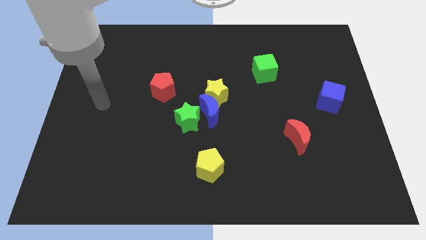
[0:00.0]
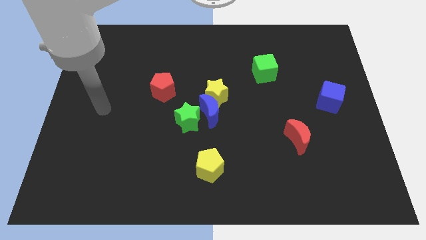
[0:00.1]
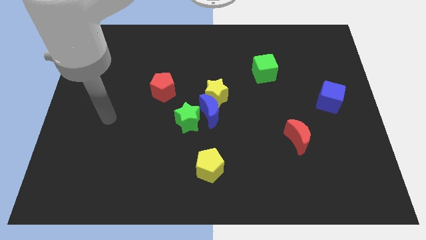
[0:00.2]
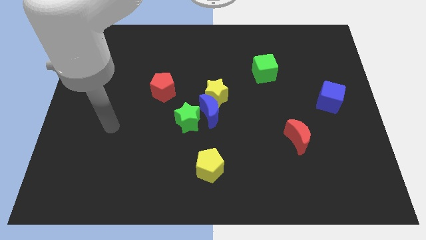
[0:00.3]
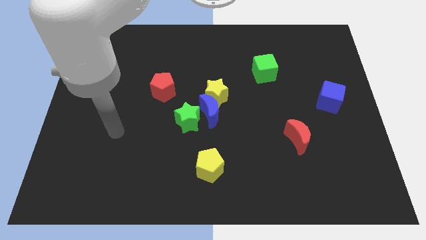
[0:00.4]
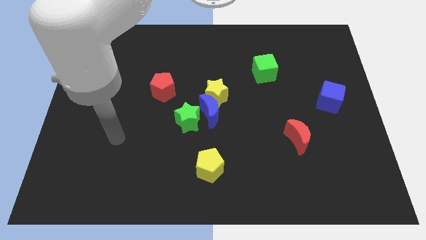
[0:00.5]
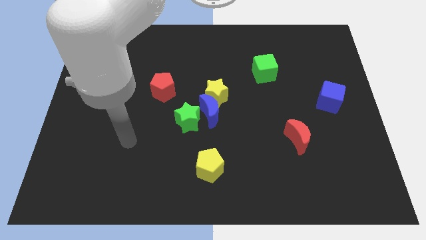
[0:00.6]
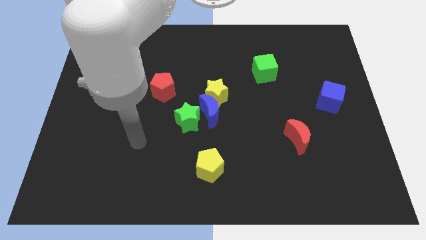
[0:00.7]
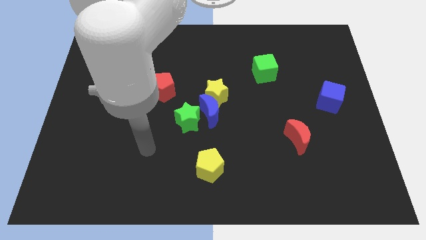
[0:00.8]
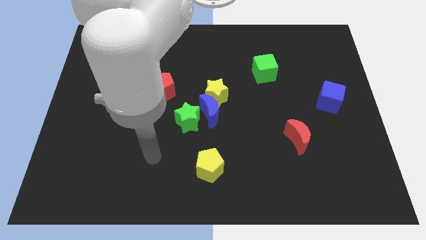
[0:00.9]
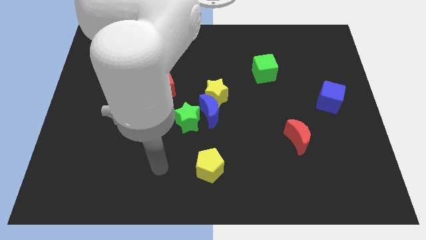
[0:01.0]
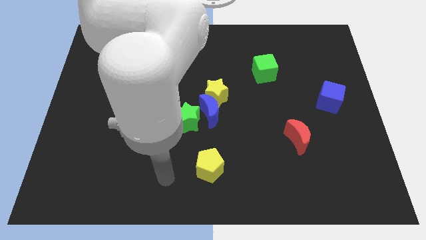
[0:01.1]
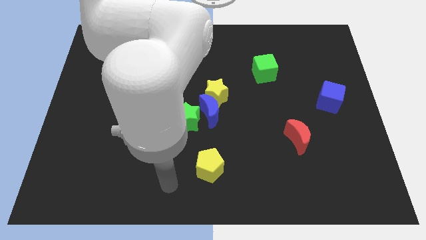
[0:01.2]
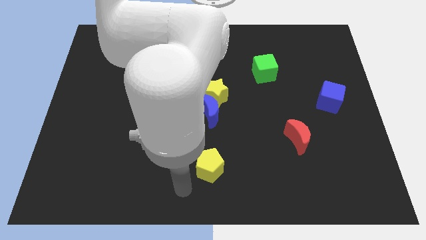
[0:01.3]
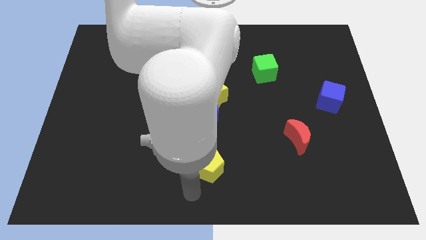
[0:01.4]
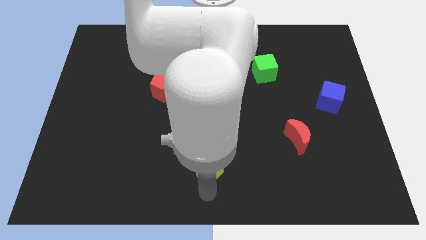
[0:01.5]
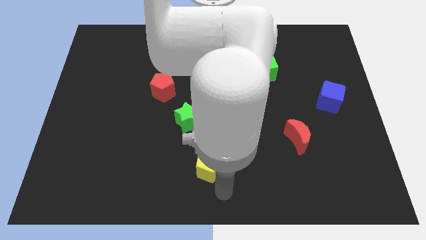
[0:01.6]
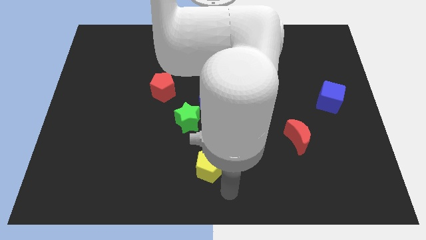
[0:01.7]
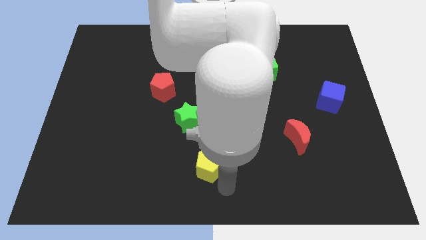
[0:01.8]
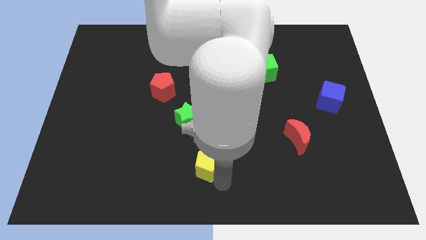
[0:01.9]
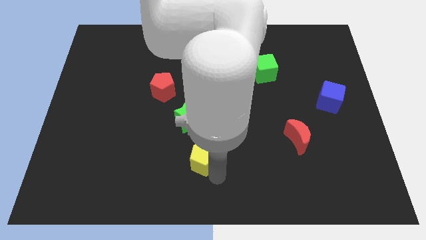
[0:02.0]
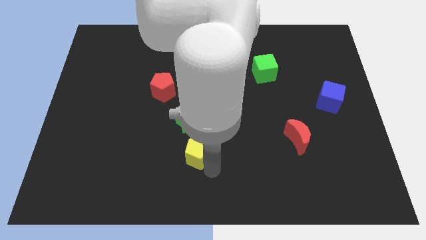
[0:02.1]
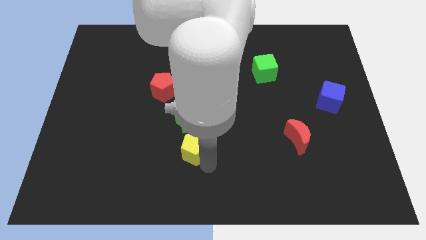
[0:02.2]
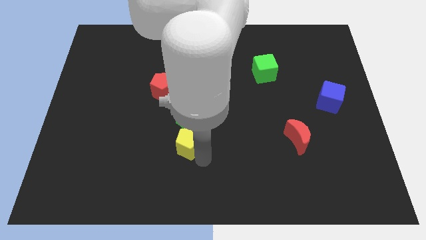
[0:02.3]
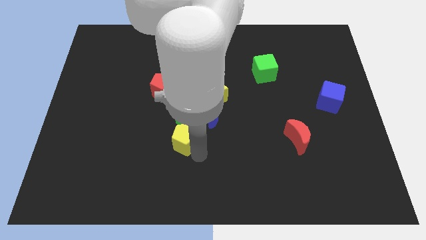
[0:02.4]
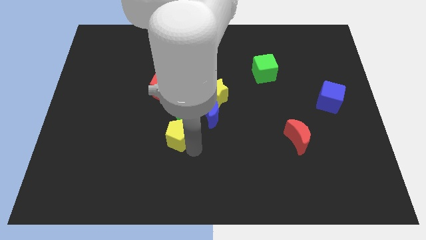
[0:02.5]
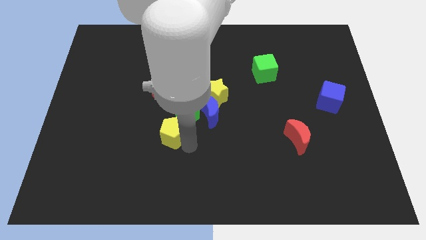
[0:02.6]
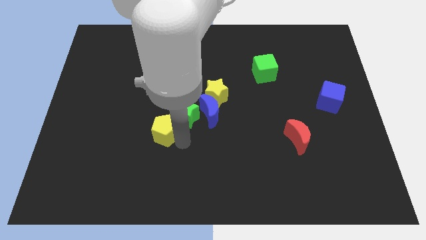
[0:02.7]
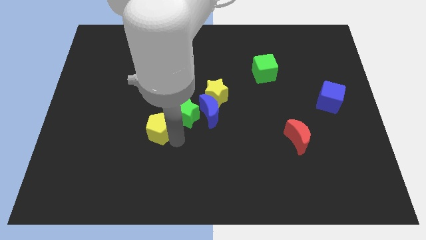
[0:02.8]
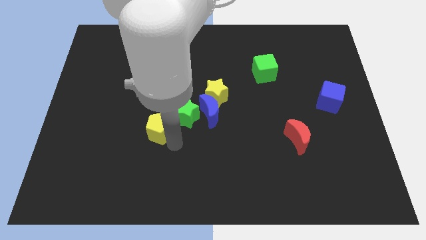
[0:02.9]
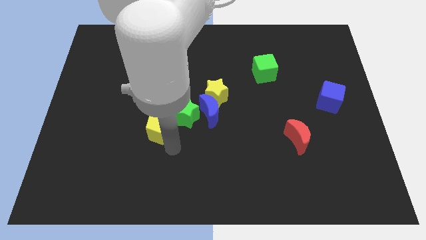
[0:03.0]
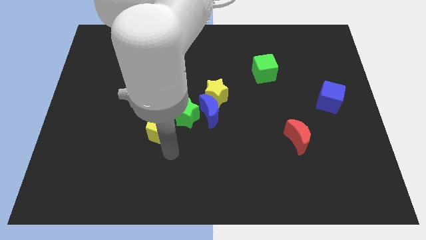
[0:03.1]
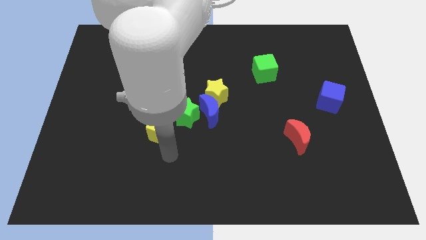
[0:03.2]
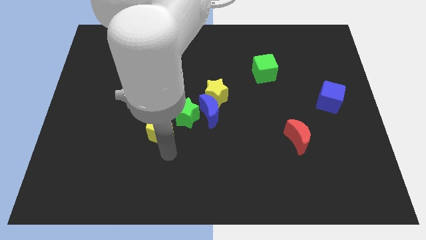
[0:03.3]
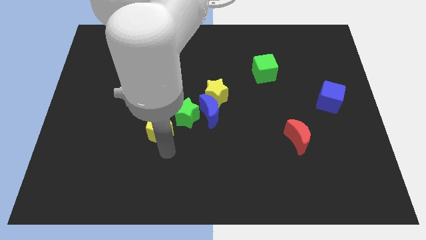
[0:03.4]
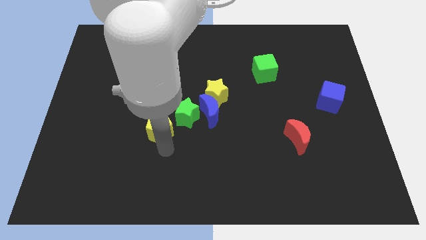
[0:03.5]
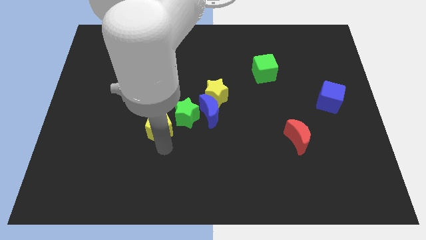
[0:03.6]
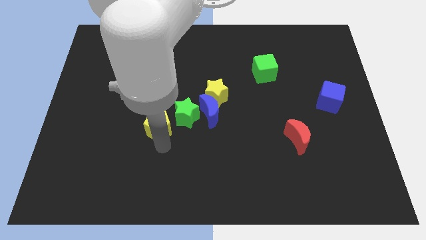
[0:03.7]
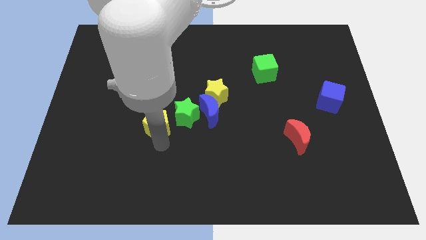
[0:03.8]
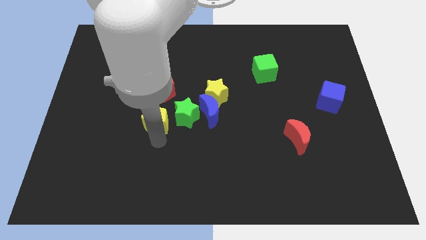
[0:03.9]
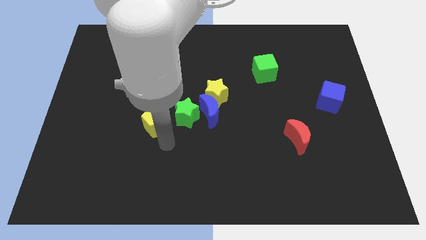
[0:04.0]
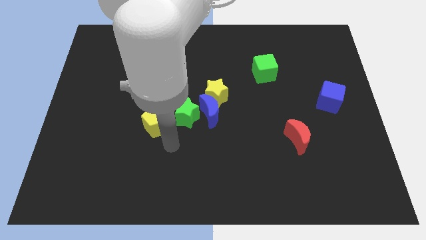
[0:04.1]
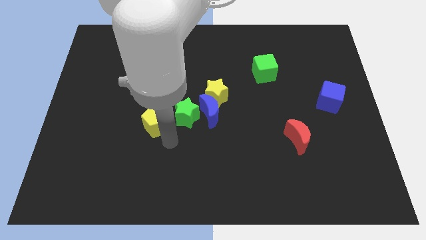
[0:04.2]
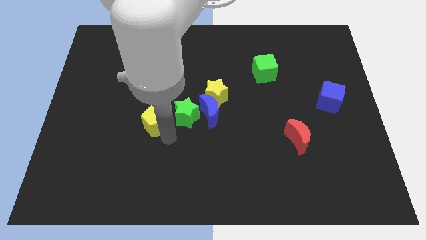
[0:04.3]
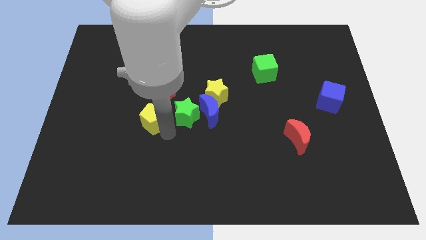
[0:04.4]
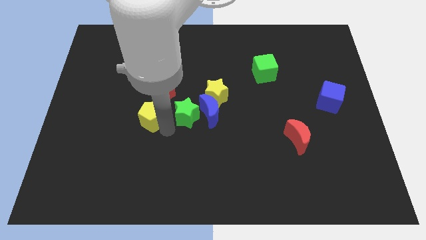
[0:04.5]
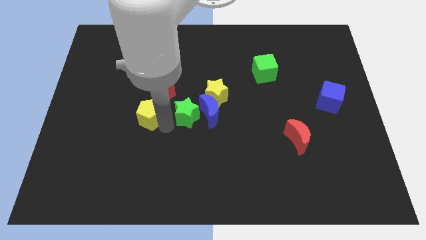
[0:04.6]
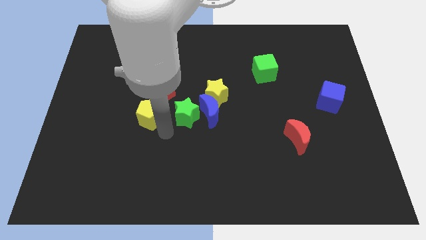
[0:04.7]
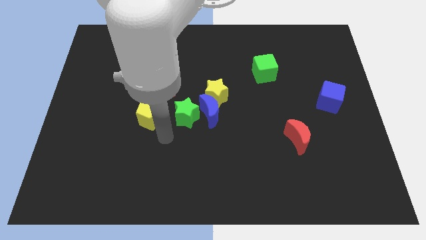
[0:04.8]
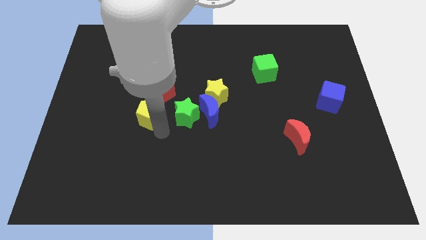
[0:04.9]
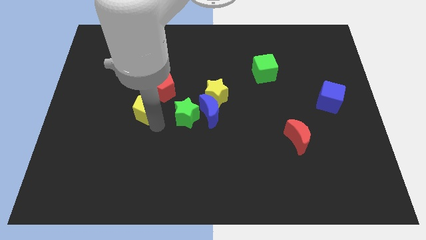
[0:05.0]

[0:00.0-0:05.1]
move the yellow pentagon up and left diagonally

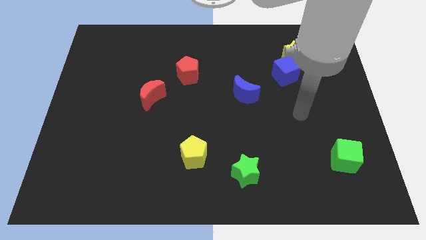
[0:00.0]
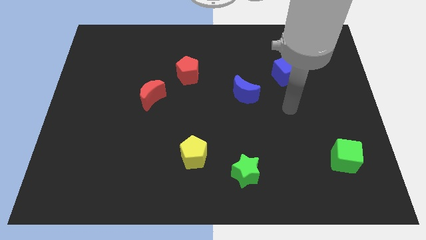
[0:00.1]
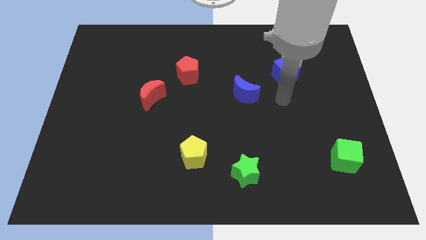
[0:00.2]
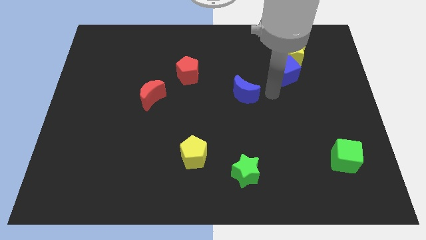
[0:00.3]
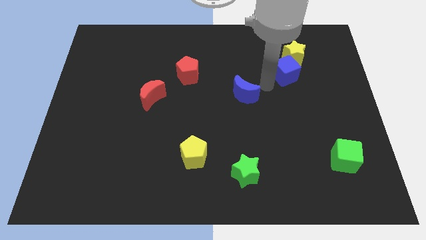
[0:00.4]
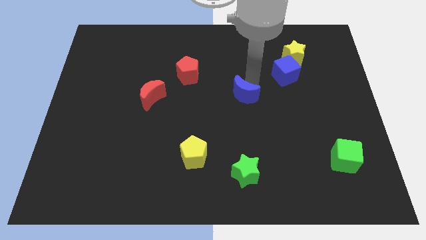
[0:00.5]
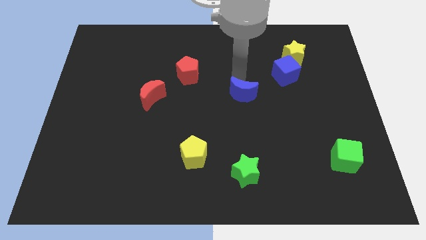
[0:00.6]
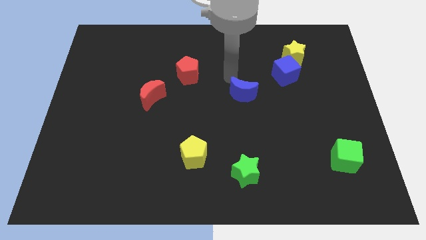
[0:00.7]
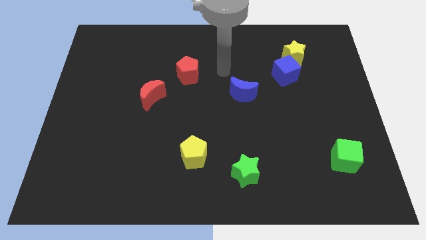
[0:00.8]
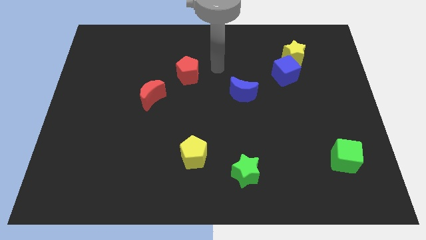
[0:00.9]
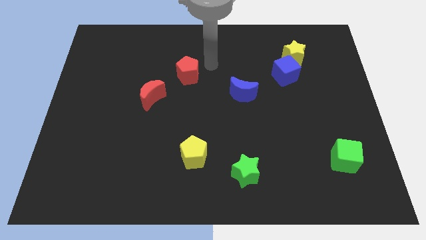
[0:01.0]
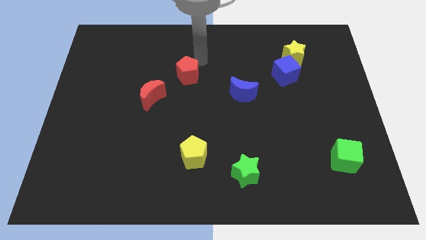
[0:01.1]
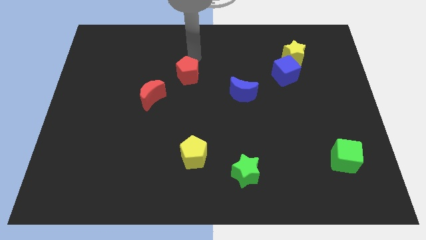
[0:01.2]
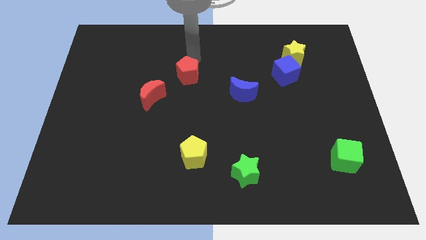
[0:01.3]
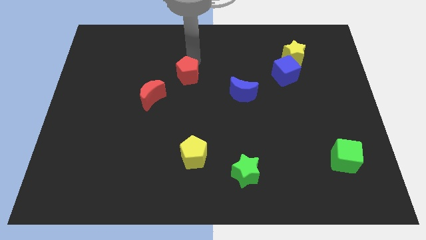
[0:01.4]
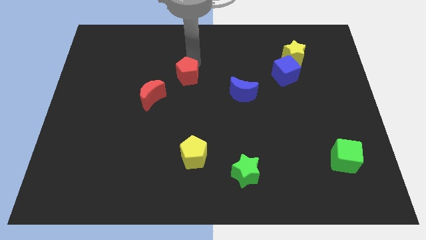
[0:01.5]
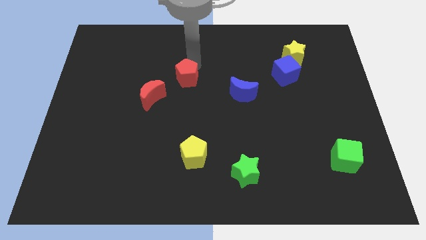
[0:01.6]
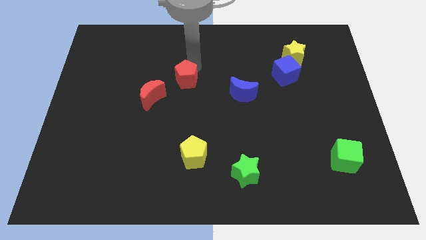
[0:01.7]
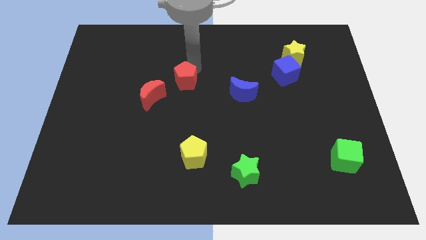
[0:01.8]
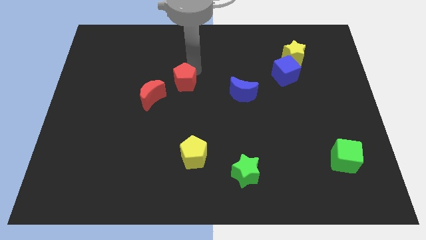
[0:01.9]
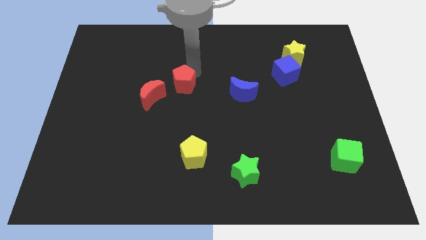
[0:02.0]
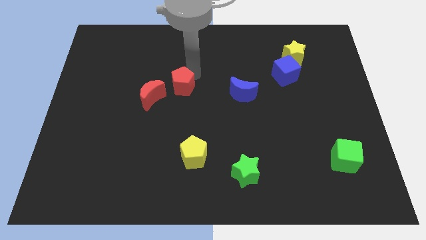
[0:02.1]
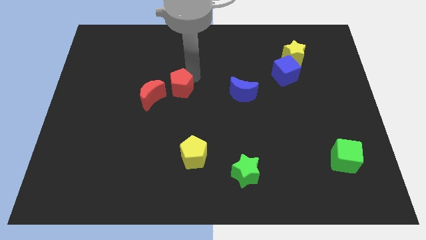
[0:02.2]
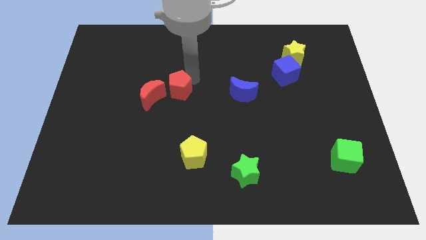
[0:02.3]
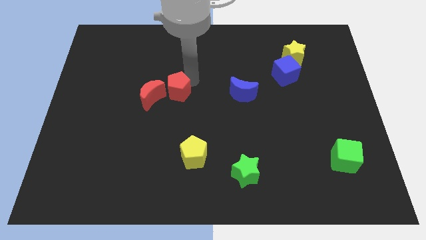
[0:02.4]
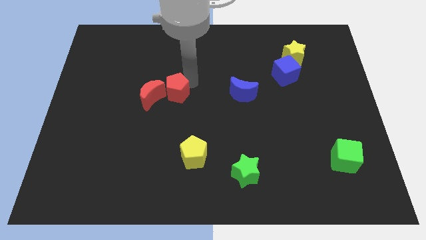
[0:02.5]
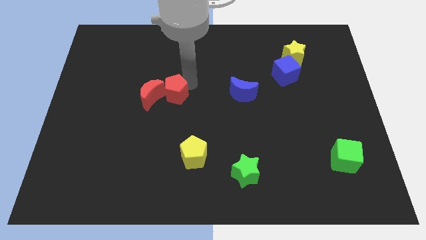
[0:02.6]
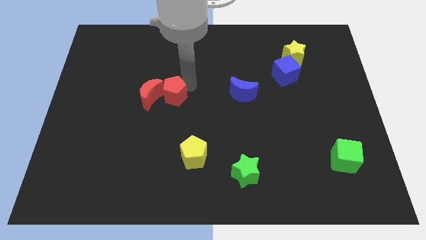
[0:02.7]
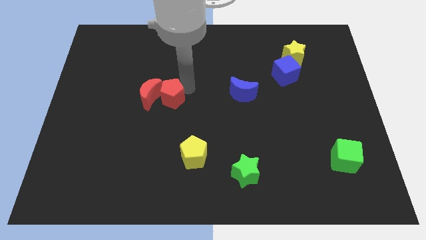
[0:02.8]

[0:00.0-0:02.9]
slide the red pentagon somewhat diagonally down and left

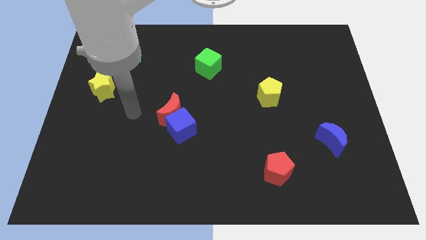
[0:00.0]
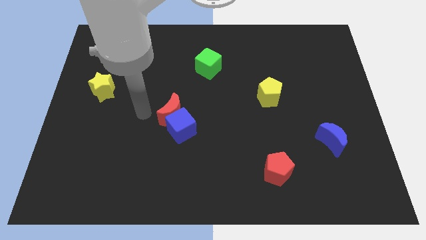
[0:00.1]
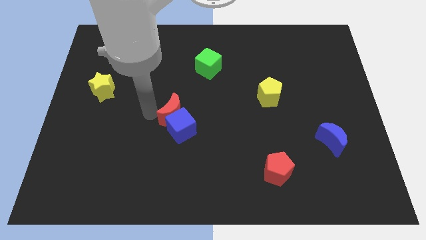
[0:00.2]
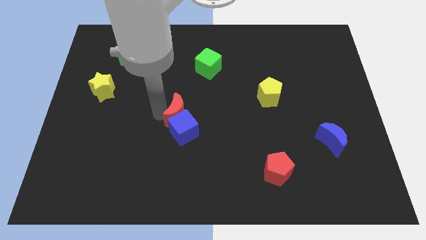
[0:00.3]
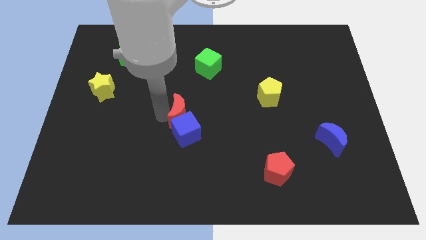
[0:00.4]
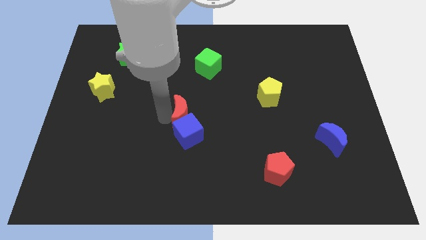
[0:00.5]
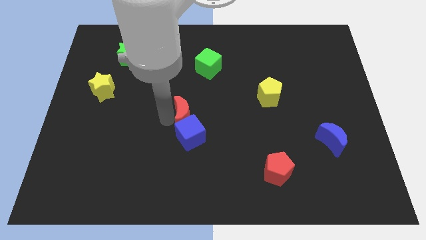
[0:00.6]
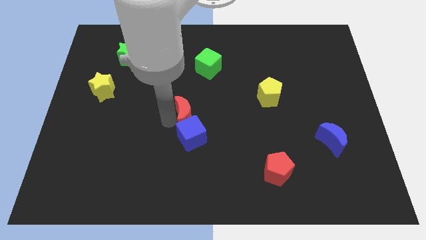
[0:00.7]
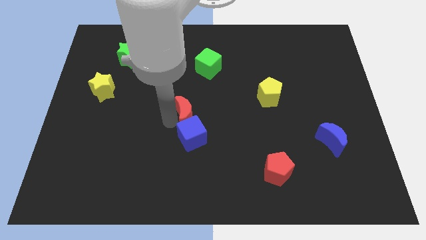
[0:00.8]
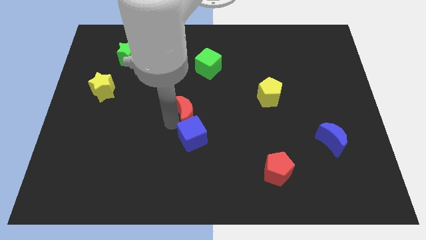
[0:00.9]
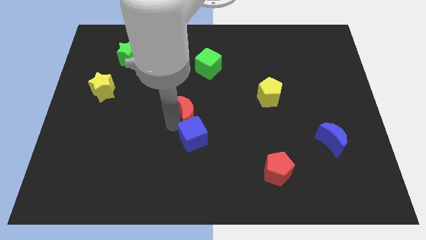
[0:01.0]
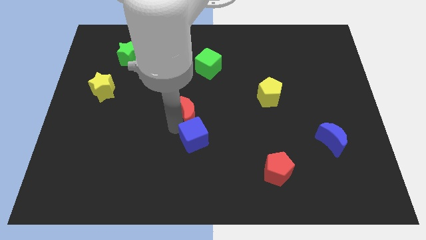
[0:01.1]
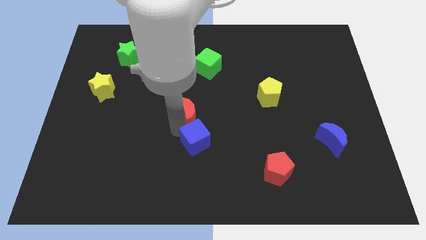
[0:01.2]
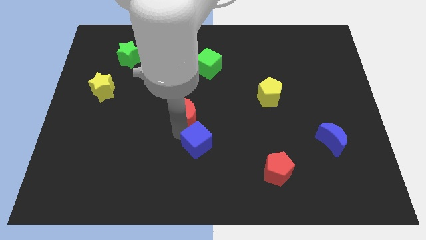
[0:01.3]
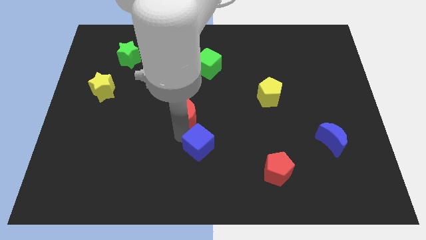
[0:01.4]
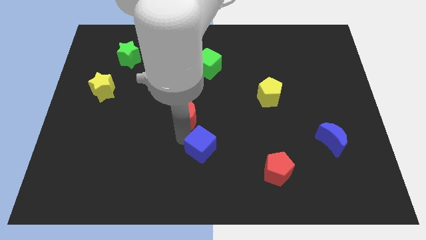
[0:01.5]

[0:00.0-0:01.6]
push the blue cube slightly downwards and to the right
